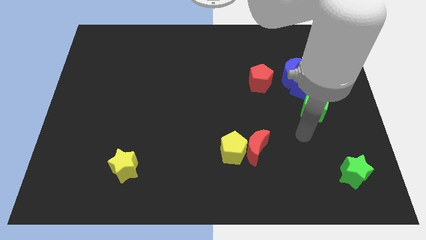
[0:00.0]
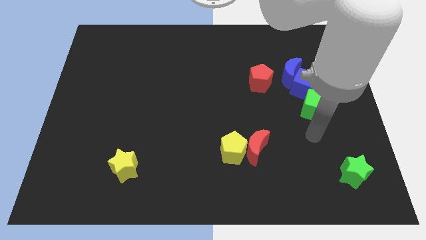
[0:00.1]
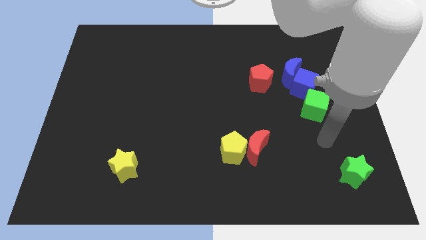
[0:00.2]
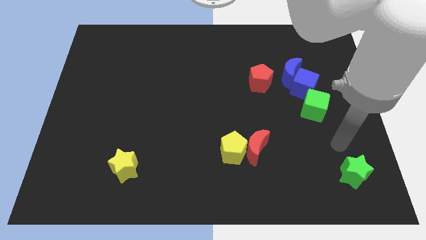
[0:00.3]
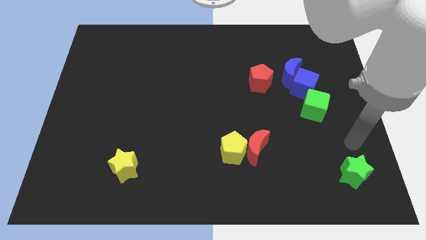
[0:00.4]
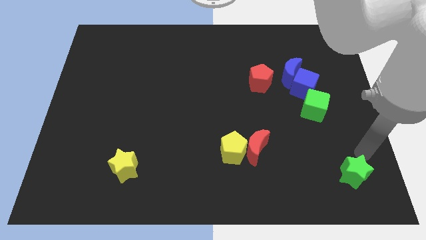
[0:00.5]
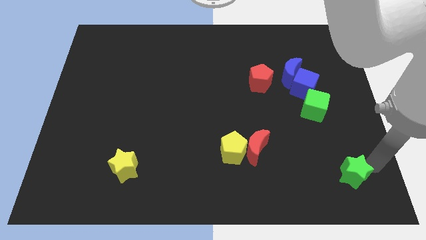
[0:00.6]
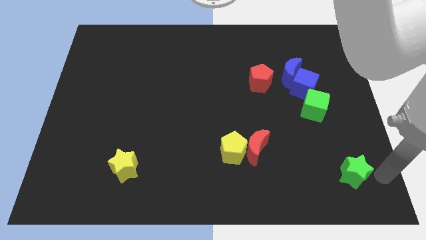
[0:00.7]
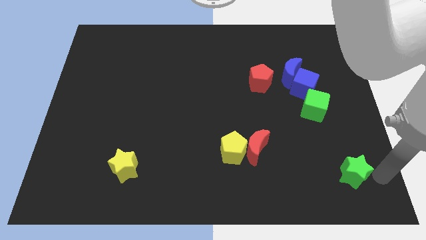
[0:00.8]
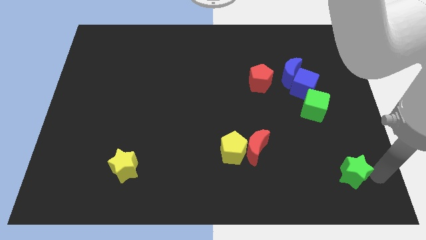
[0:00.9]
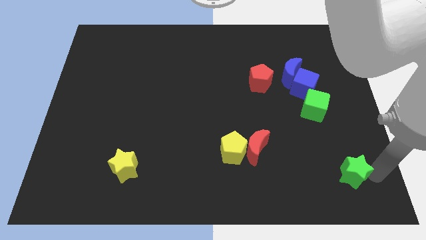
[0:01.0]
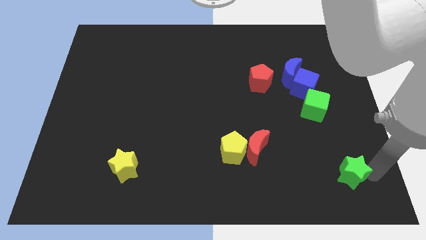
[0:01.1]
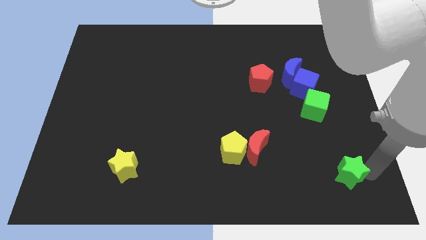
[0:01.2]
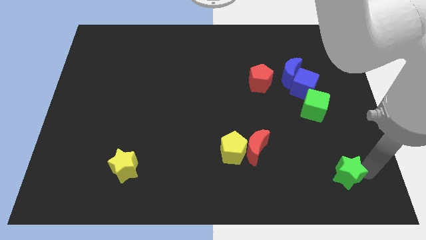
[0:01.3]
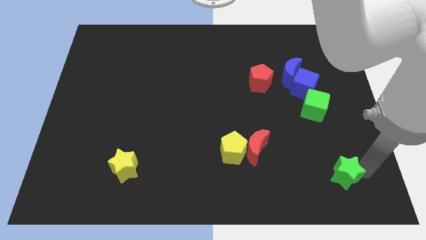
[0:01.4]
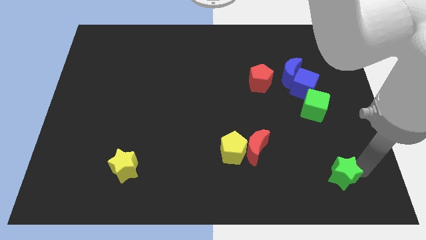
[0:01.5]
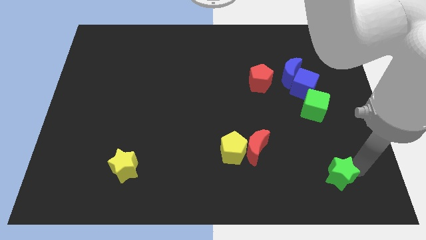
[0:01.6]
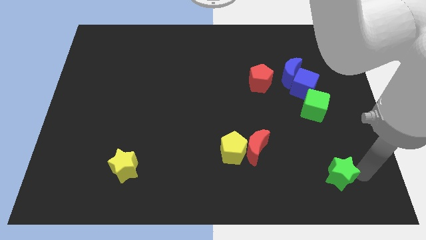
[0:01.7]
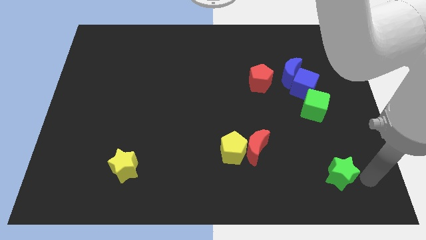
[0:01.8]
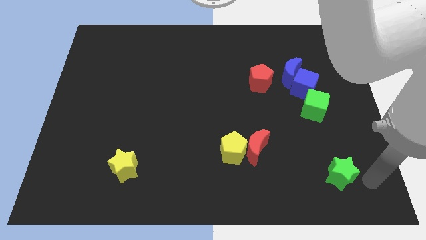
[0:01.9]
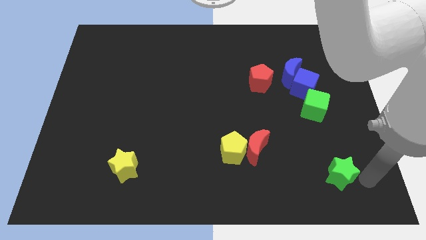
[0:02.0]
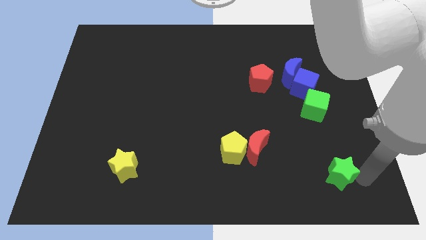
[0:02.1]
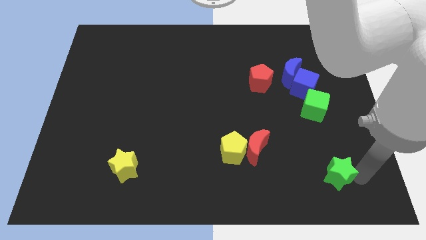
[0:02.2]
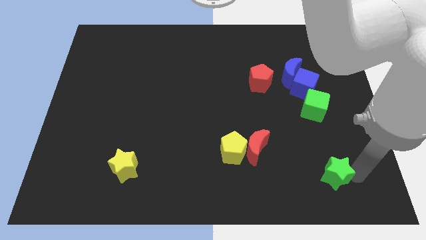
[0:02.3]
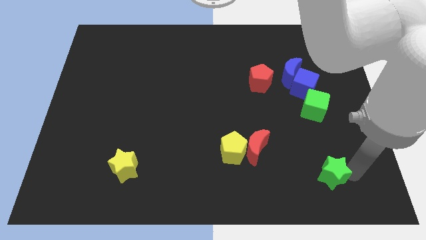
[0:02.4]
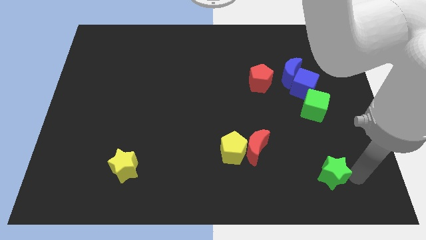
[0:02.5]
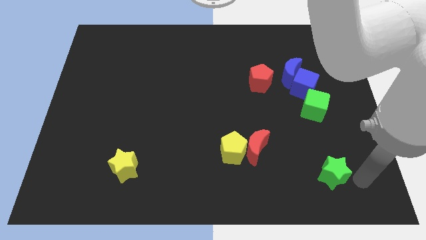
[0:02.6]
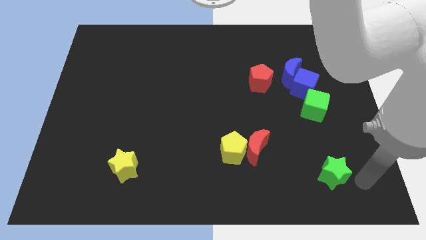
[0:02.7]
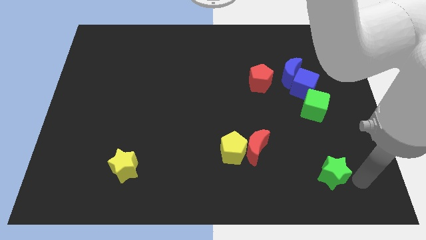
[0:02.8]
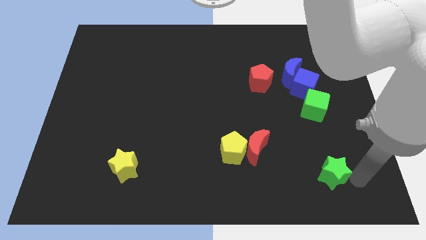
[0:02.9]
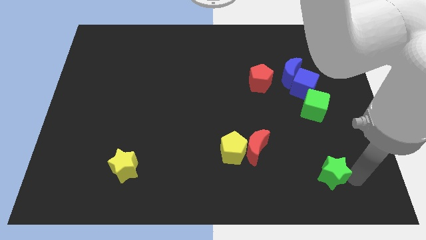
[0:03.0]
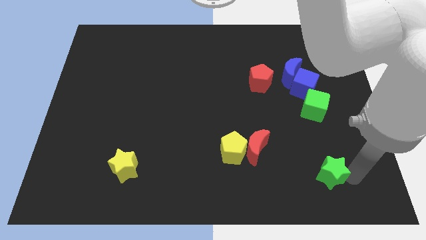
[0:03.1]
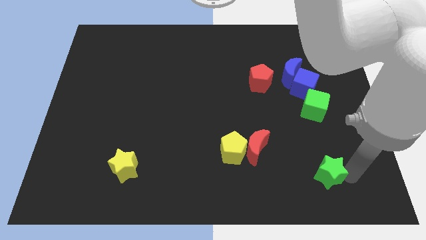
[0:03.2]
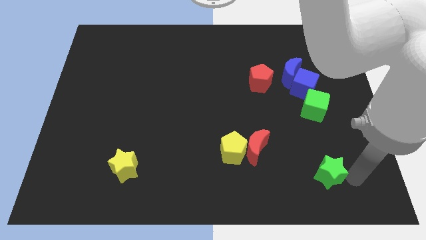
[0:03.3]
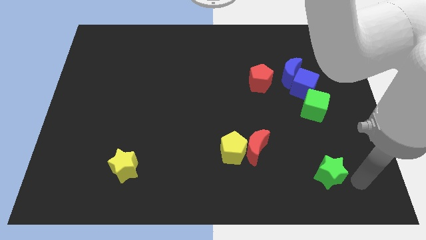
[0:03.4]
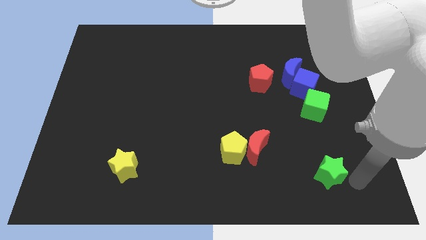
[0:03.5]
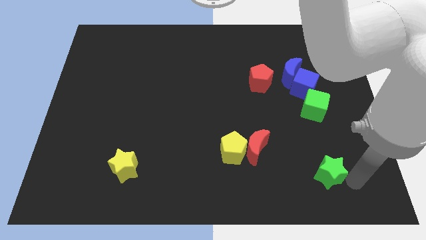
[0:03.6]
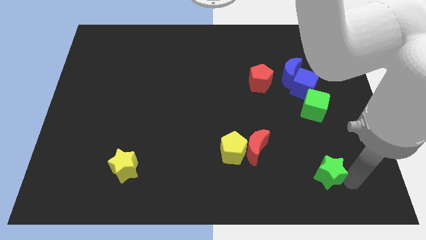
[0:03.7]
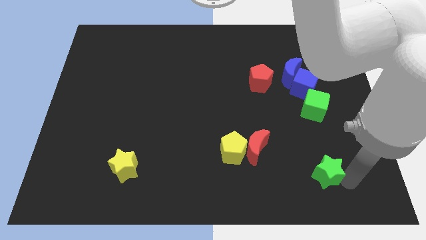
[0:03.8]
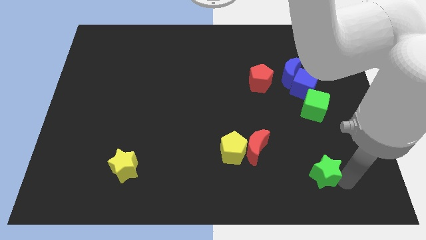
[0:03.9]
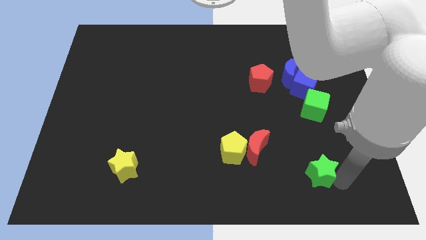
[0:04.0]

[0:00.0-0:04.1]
slightly move the green star to the left

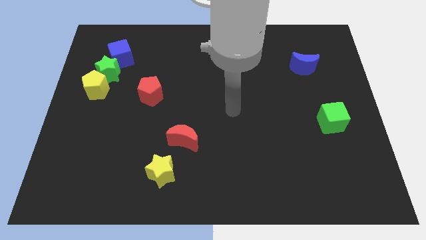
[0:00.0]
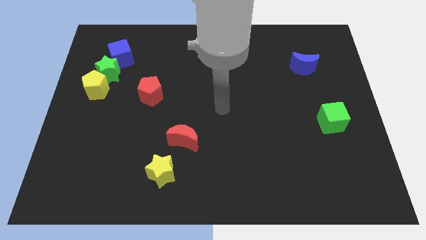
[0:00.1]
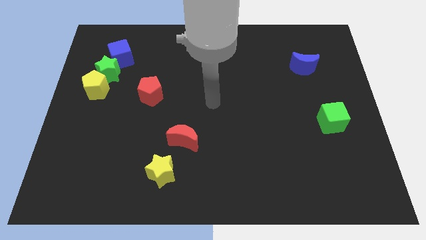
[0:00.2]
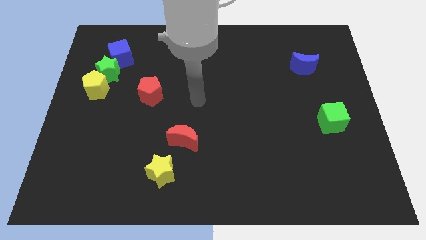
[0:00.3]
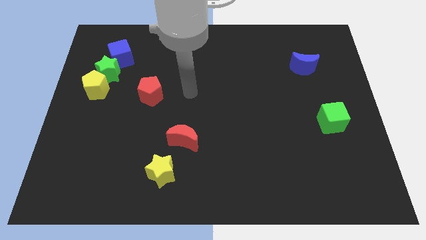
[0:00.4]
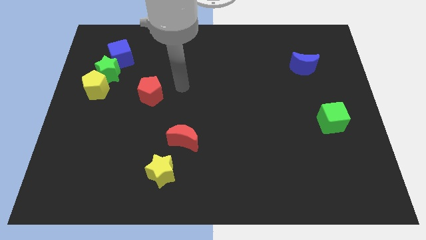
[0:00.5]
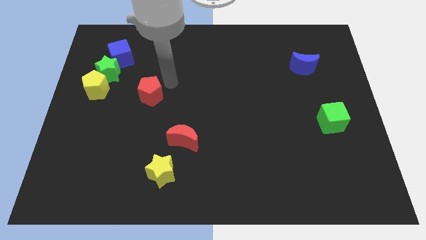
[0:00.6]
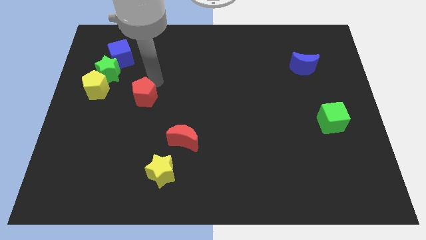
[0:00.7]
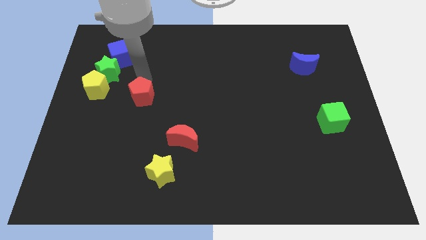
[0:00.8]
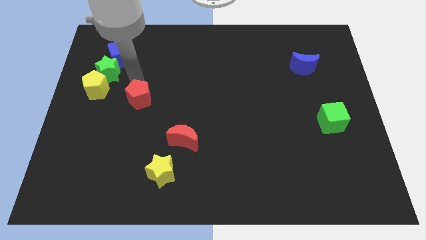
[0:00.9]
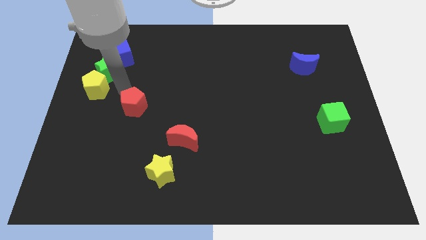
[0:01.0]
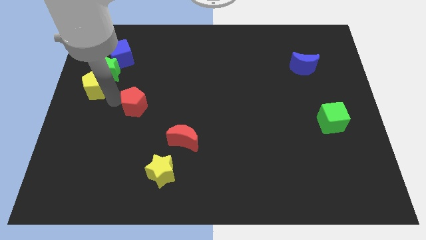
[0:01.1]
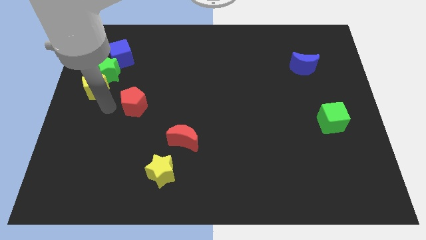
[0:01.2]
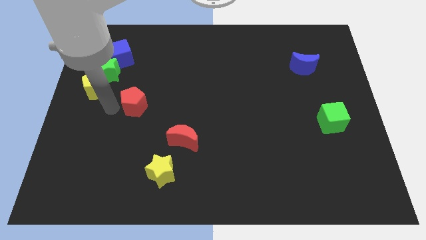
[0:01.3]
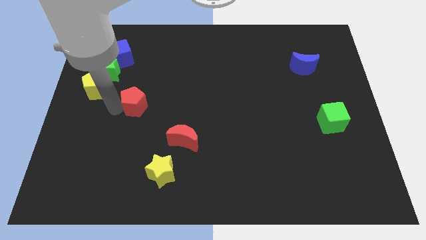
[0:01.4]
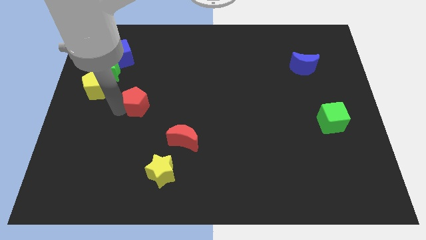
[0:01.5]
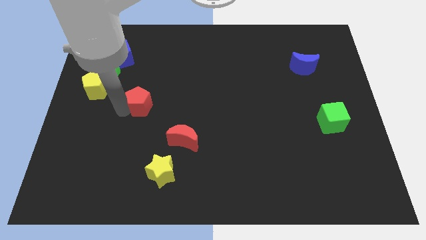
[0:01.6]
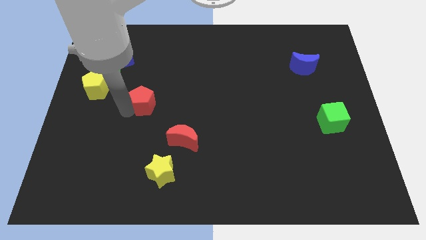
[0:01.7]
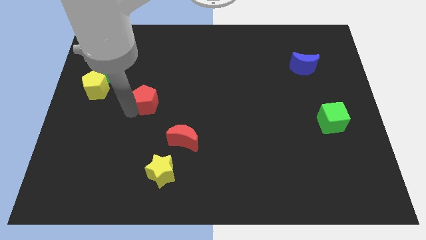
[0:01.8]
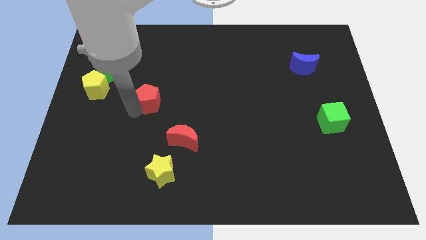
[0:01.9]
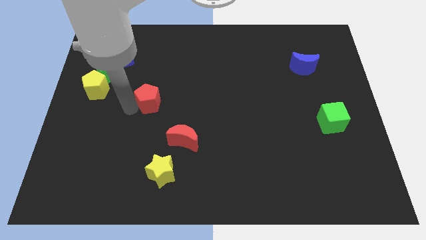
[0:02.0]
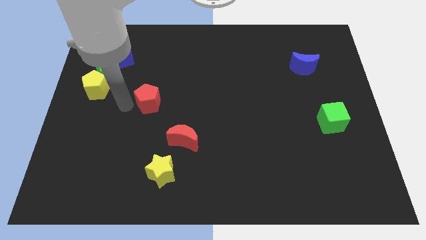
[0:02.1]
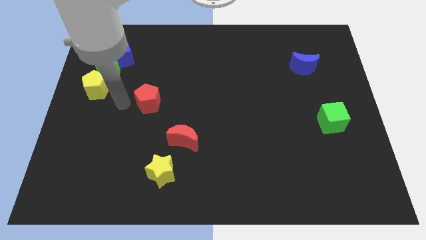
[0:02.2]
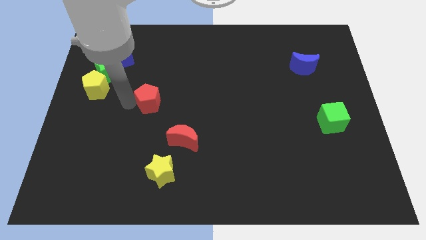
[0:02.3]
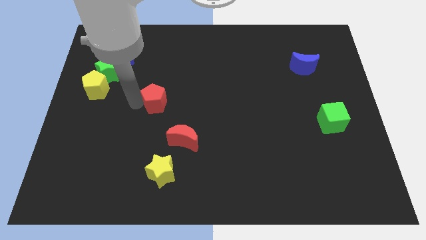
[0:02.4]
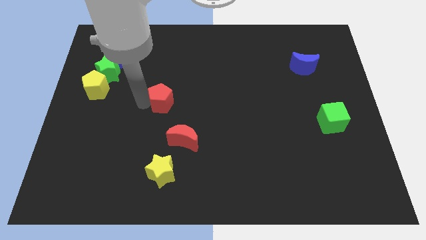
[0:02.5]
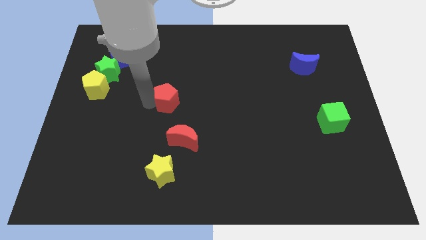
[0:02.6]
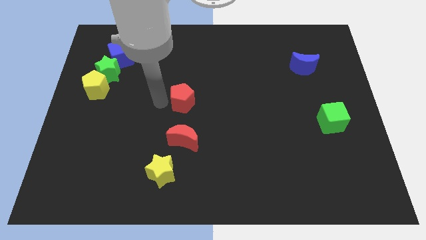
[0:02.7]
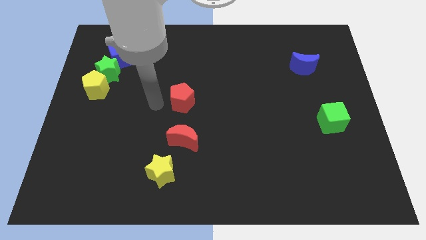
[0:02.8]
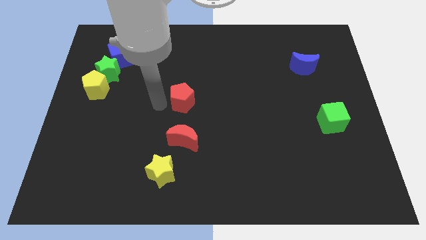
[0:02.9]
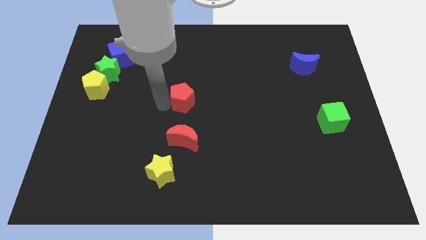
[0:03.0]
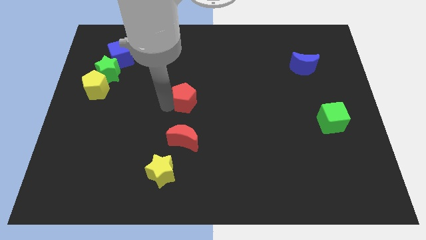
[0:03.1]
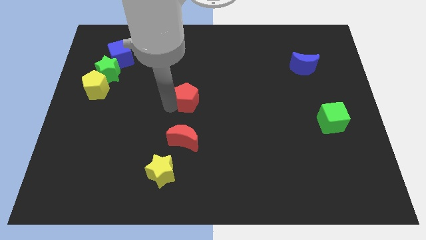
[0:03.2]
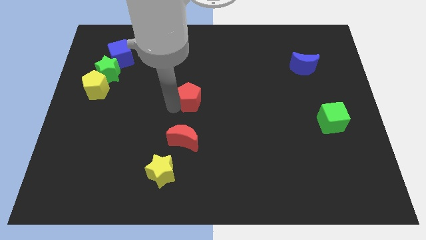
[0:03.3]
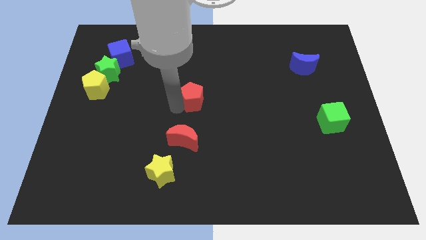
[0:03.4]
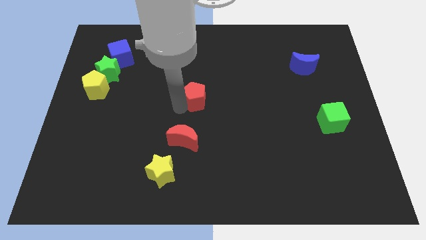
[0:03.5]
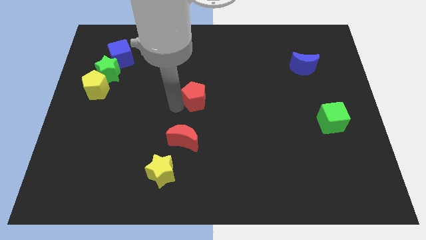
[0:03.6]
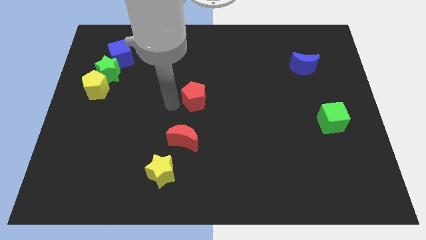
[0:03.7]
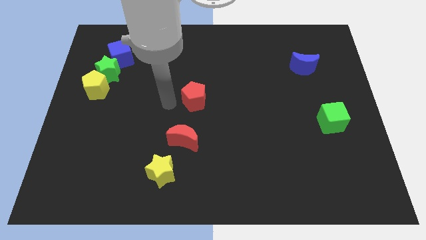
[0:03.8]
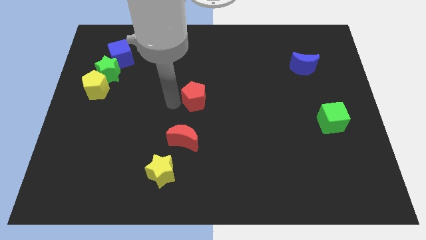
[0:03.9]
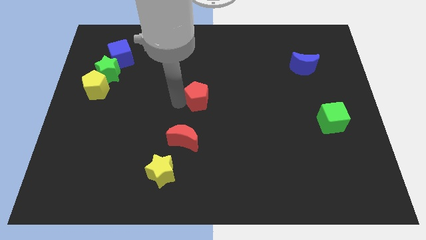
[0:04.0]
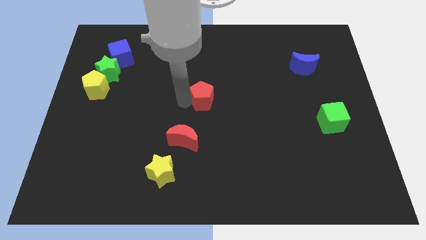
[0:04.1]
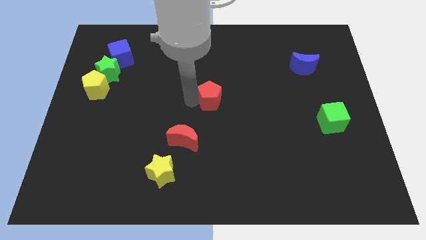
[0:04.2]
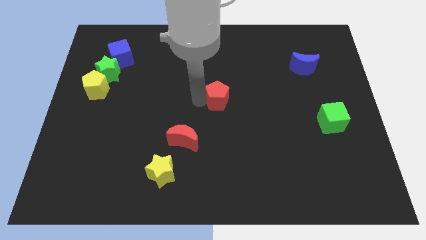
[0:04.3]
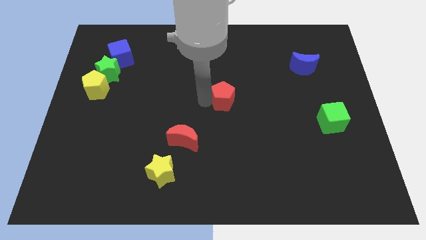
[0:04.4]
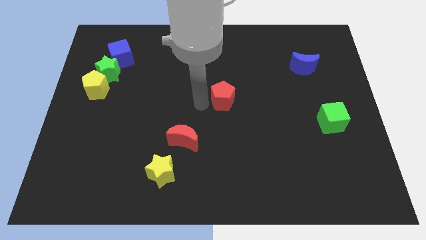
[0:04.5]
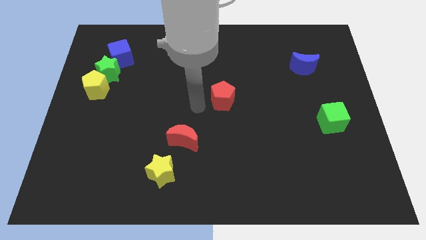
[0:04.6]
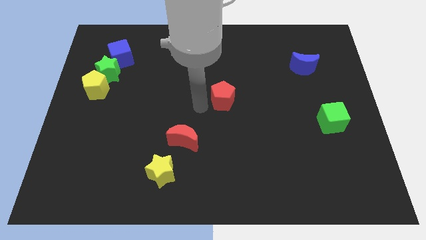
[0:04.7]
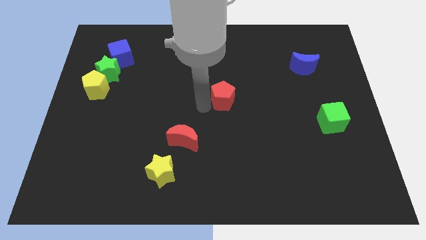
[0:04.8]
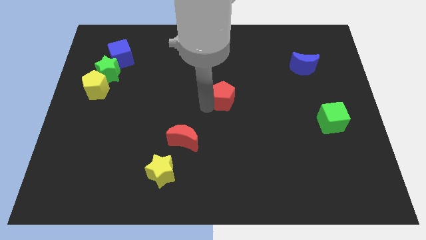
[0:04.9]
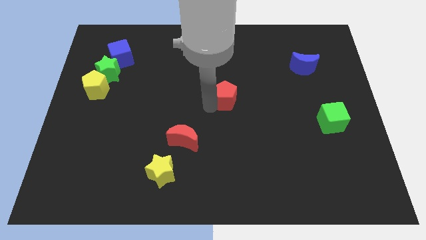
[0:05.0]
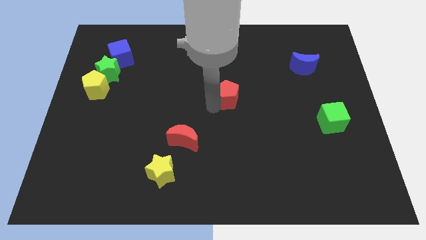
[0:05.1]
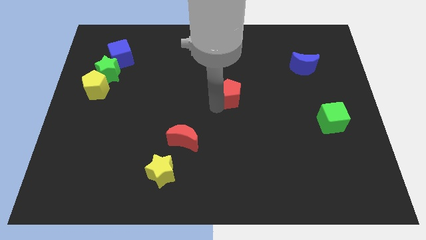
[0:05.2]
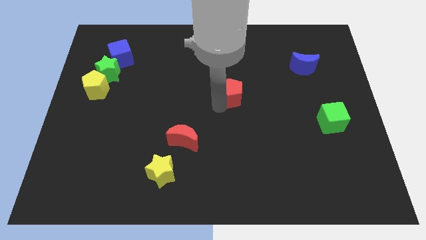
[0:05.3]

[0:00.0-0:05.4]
move the red pentagon right
